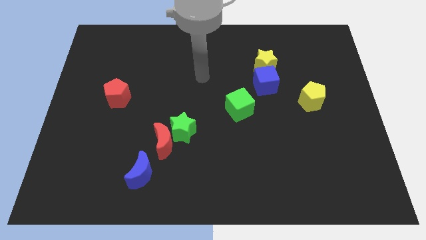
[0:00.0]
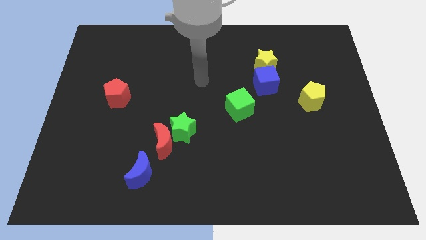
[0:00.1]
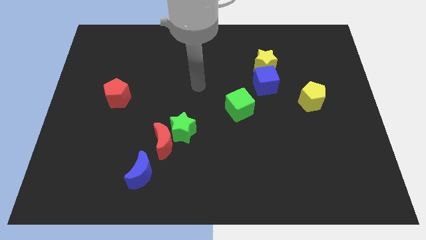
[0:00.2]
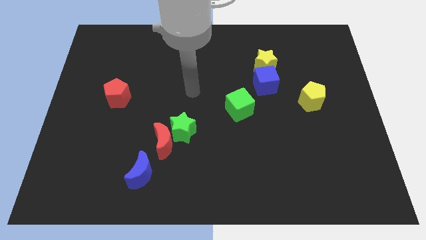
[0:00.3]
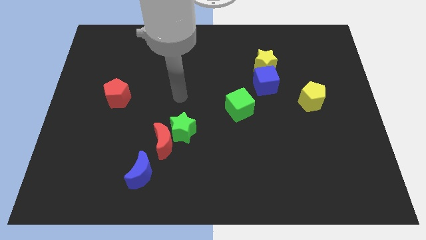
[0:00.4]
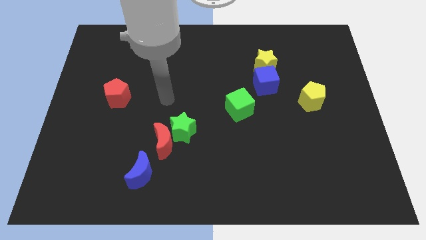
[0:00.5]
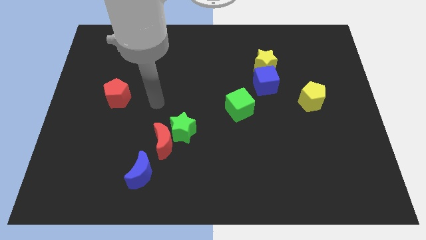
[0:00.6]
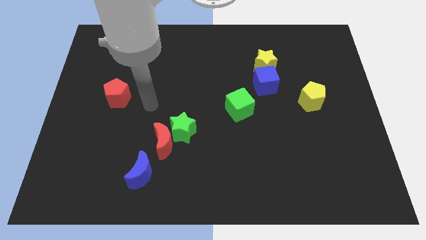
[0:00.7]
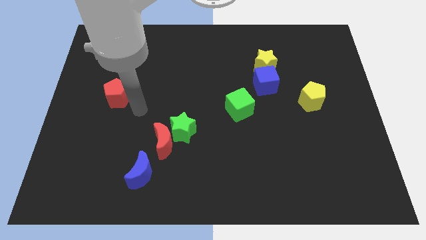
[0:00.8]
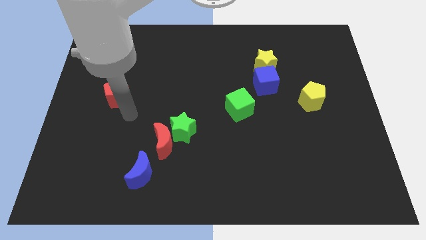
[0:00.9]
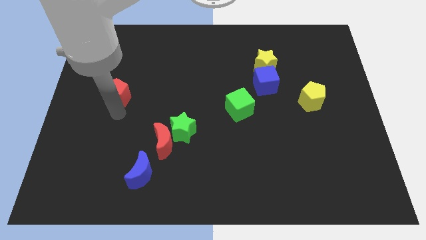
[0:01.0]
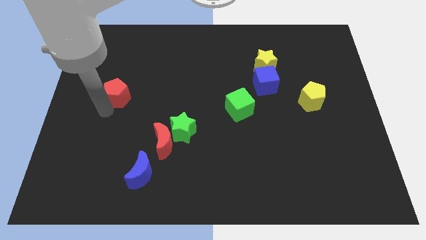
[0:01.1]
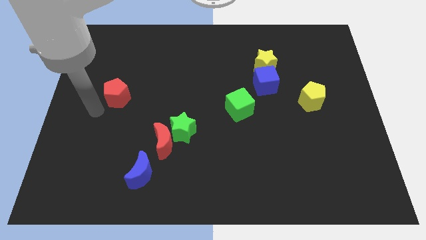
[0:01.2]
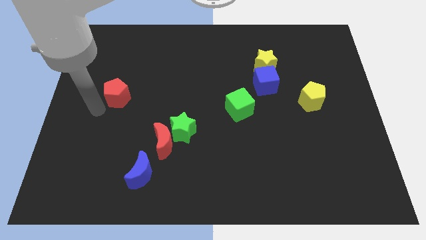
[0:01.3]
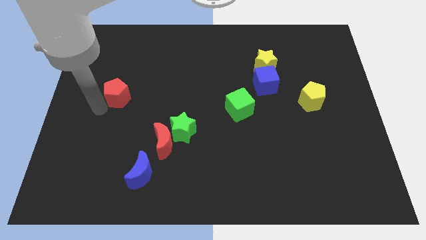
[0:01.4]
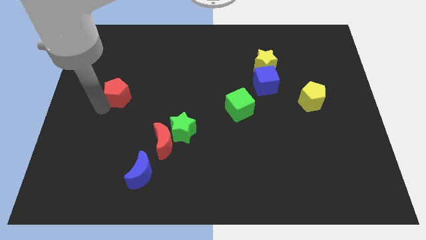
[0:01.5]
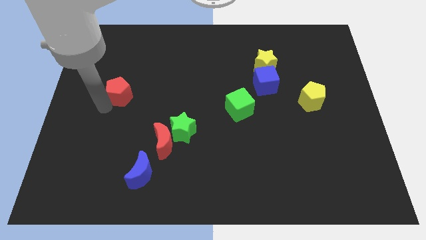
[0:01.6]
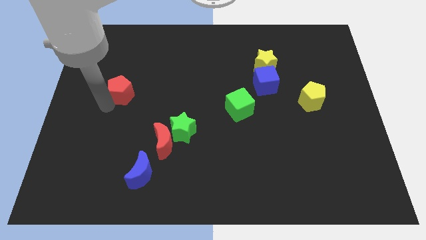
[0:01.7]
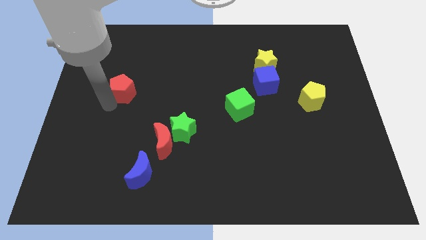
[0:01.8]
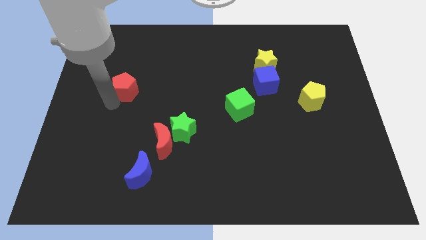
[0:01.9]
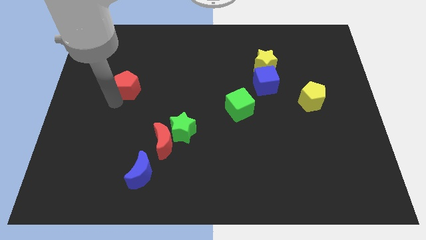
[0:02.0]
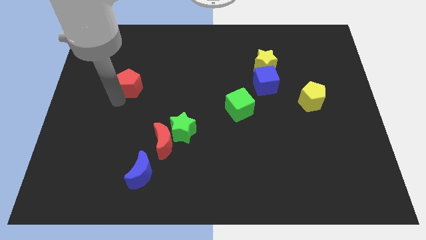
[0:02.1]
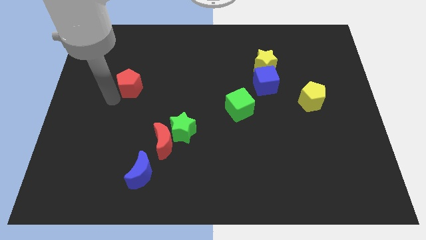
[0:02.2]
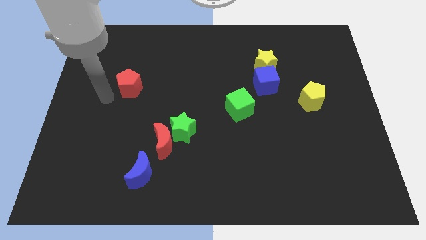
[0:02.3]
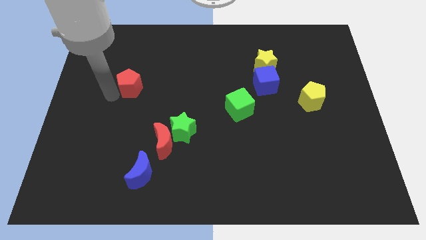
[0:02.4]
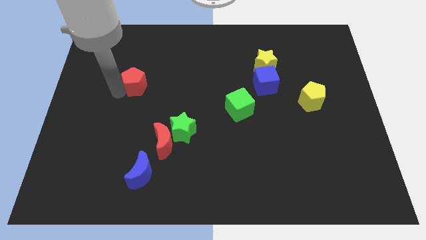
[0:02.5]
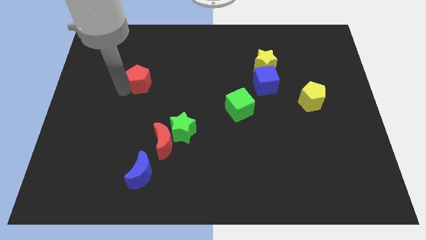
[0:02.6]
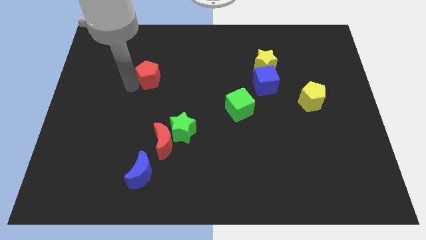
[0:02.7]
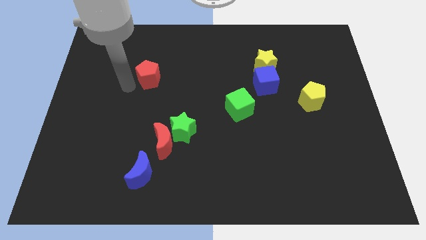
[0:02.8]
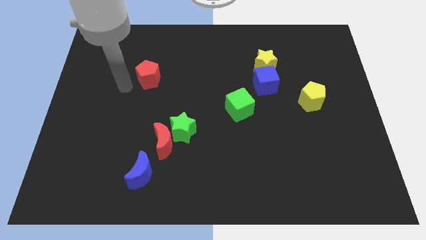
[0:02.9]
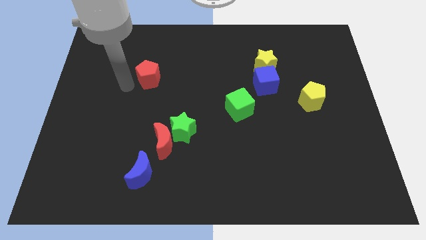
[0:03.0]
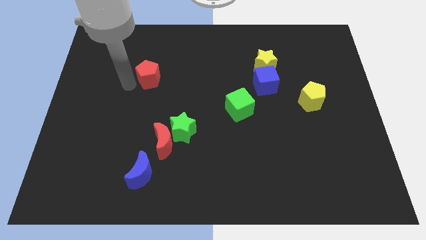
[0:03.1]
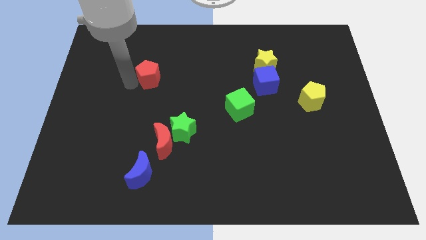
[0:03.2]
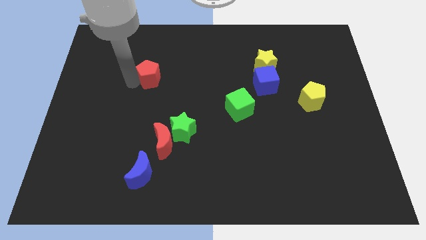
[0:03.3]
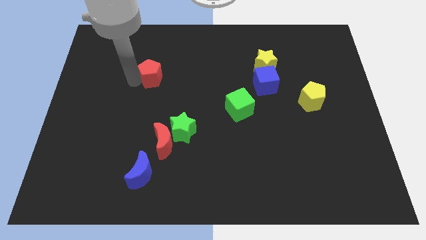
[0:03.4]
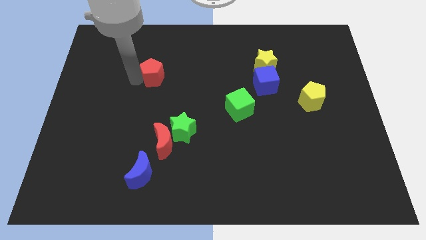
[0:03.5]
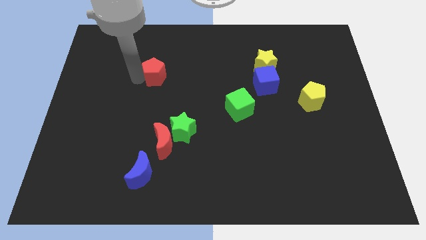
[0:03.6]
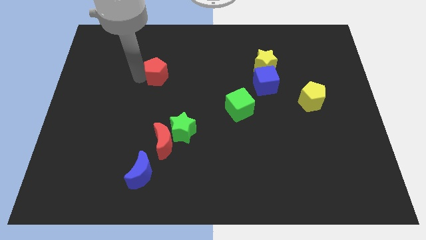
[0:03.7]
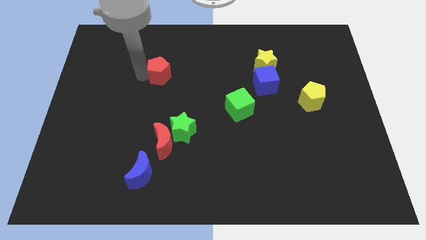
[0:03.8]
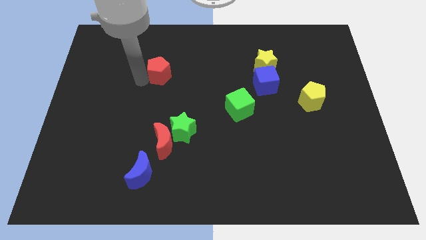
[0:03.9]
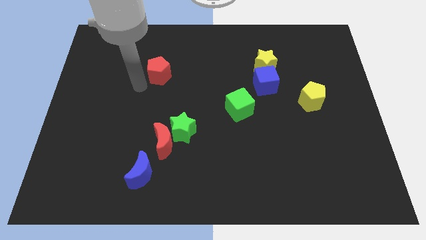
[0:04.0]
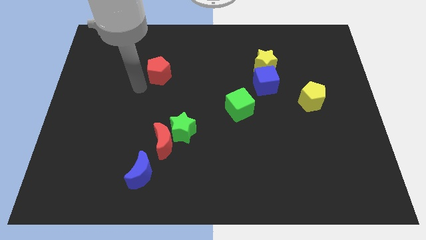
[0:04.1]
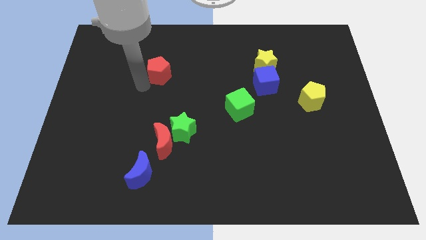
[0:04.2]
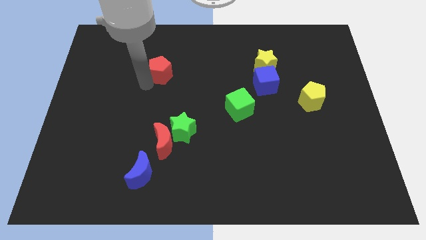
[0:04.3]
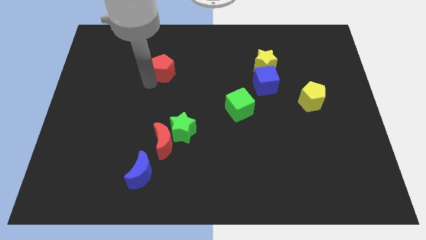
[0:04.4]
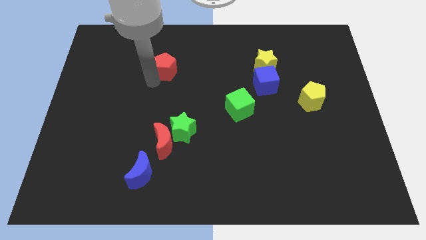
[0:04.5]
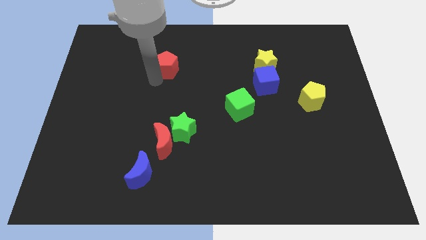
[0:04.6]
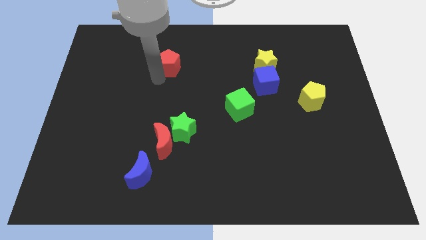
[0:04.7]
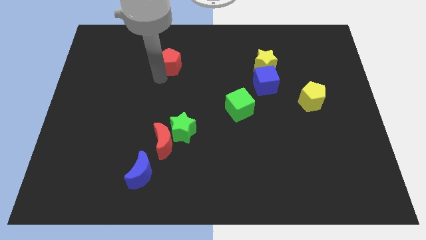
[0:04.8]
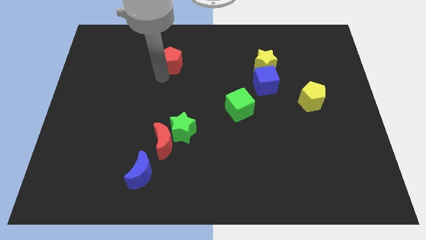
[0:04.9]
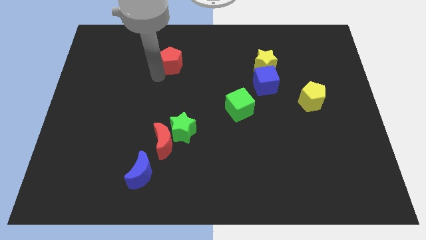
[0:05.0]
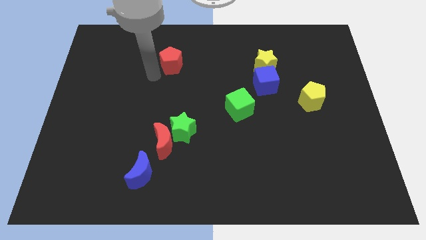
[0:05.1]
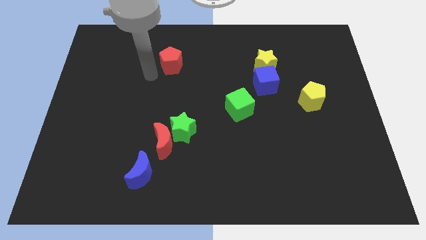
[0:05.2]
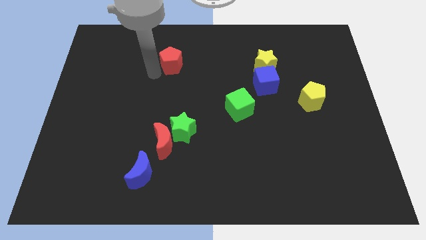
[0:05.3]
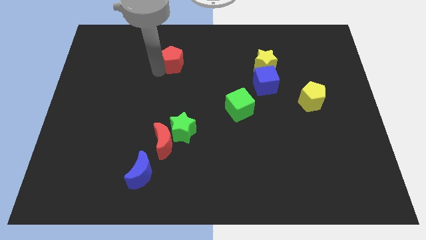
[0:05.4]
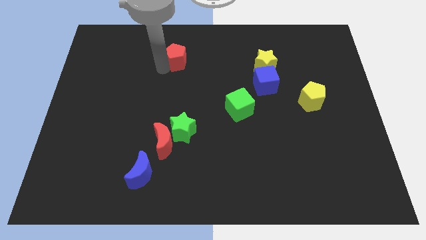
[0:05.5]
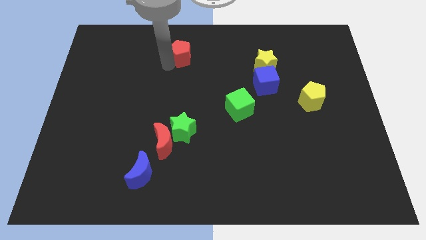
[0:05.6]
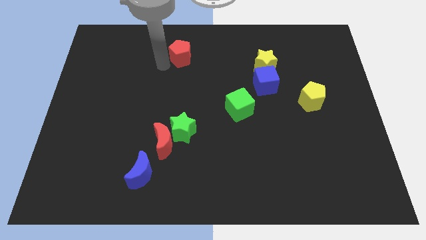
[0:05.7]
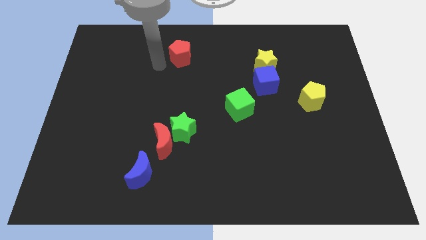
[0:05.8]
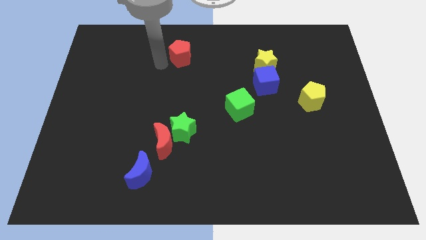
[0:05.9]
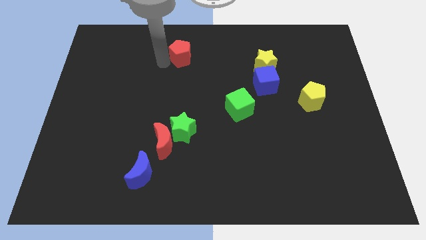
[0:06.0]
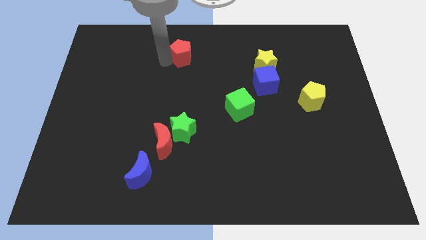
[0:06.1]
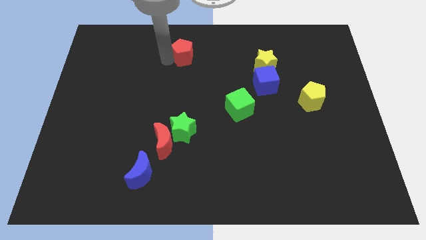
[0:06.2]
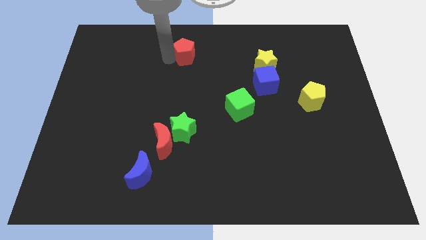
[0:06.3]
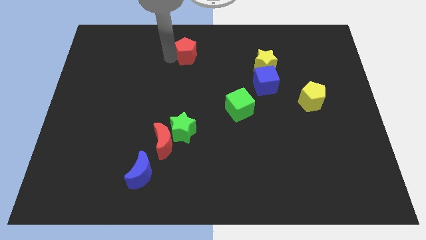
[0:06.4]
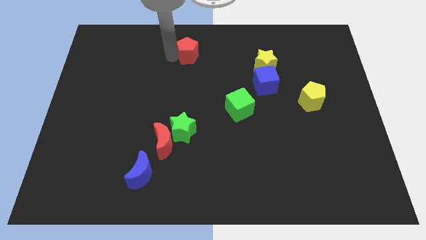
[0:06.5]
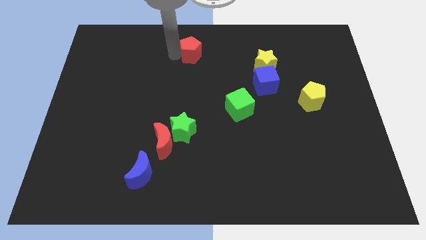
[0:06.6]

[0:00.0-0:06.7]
move the red pentagon to the top side
